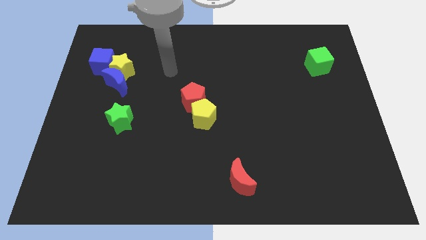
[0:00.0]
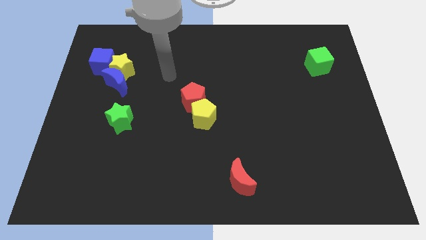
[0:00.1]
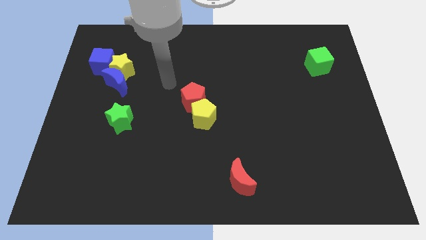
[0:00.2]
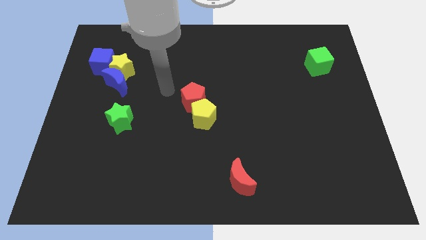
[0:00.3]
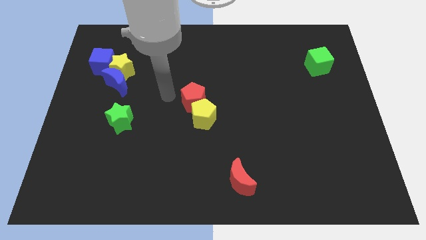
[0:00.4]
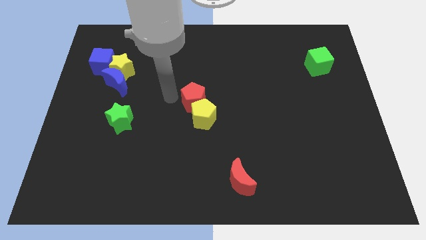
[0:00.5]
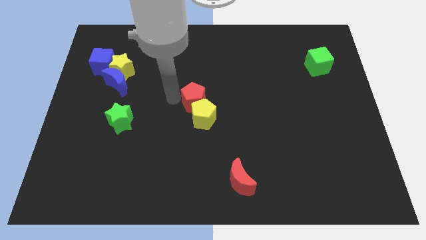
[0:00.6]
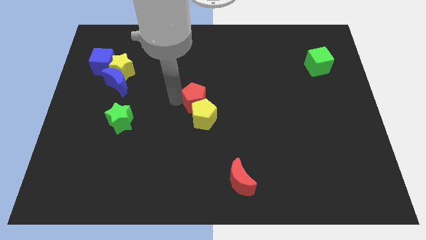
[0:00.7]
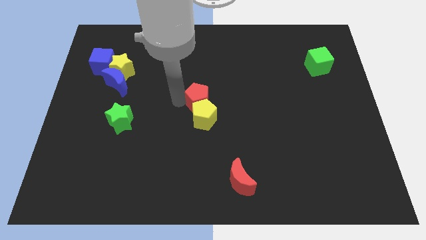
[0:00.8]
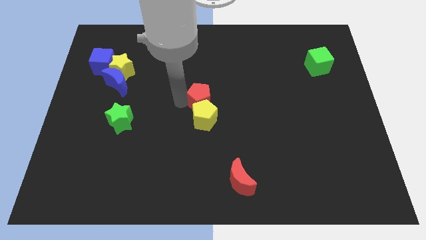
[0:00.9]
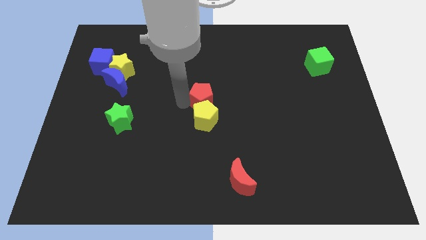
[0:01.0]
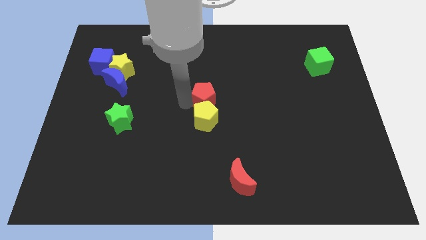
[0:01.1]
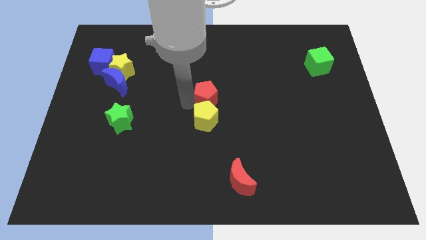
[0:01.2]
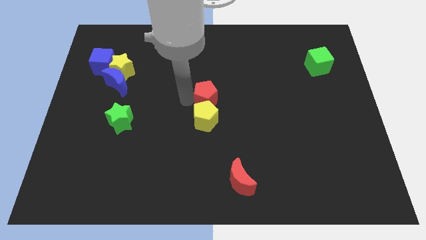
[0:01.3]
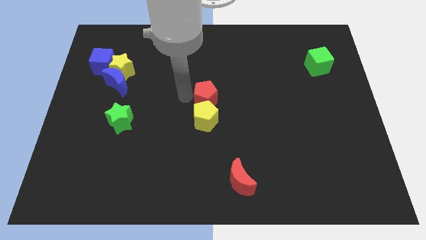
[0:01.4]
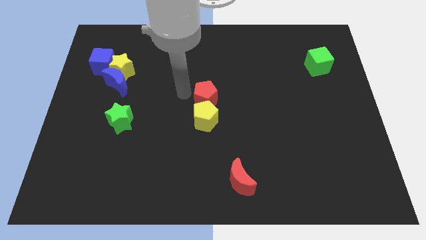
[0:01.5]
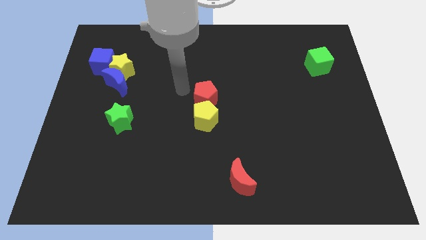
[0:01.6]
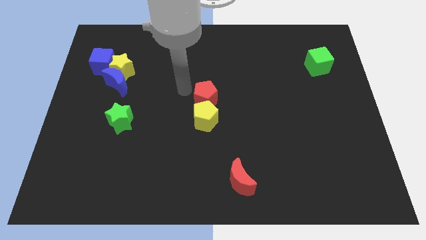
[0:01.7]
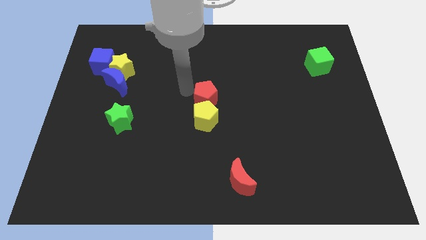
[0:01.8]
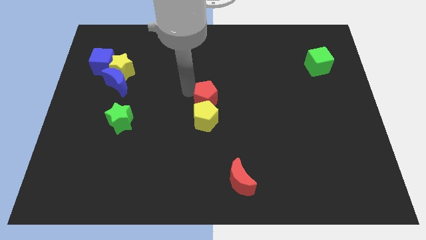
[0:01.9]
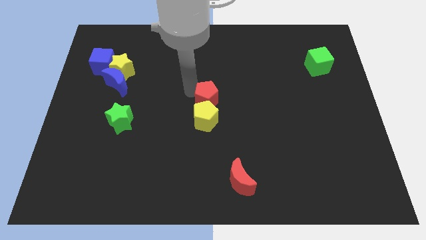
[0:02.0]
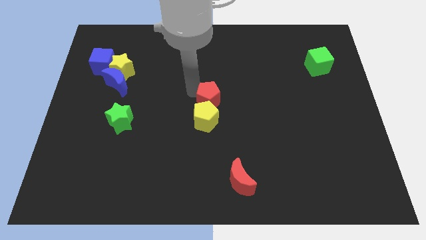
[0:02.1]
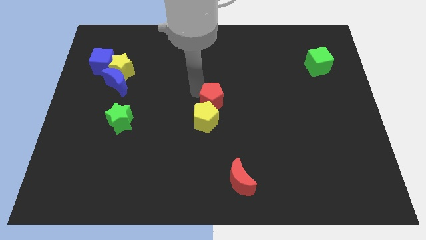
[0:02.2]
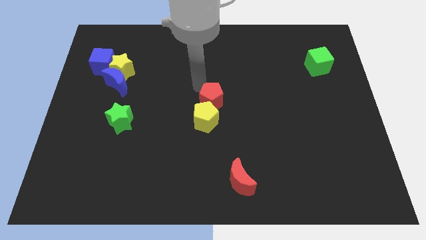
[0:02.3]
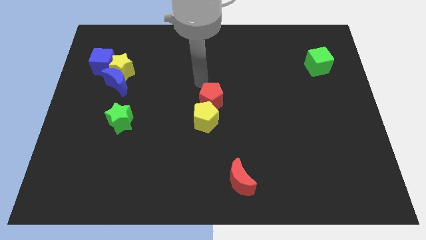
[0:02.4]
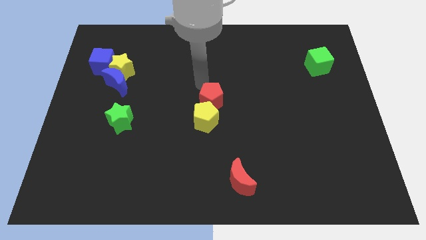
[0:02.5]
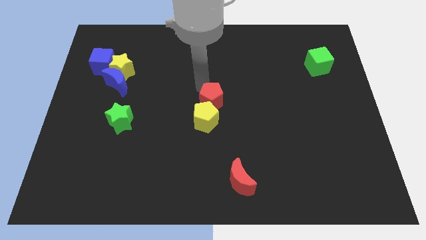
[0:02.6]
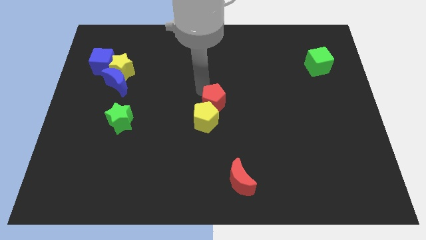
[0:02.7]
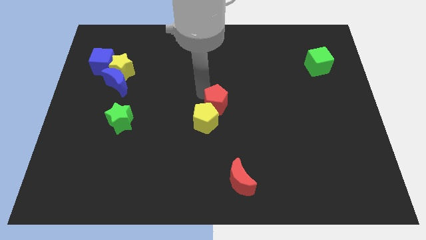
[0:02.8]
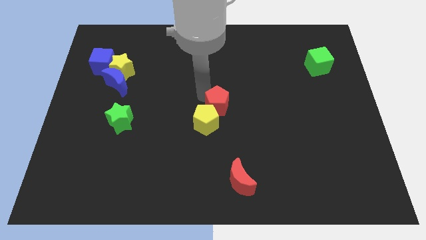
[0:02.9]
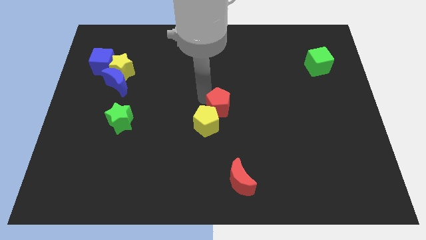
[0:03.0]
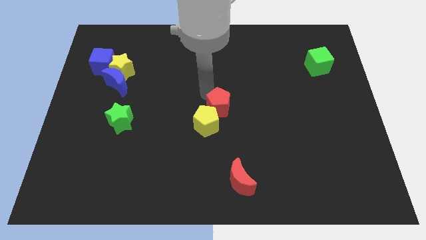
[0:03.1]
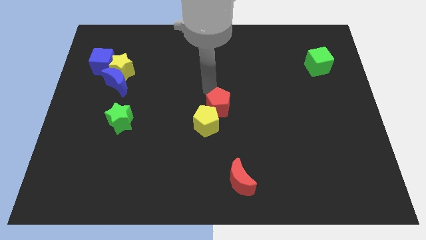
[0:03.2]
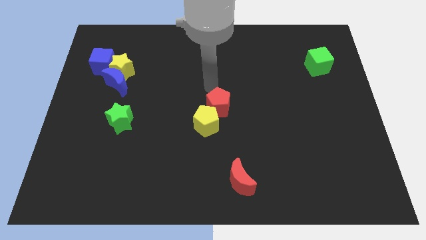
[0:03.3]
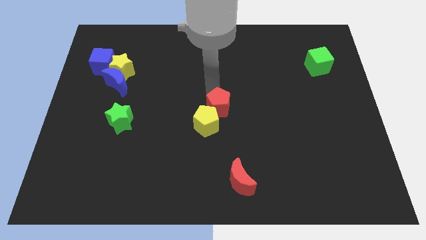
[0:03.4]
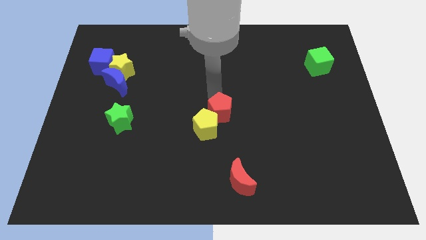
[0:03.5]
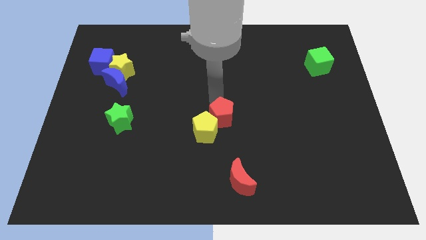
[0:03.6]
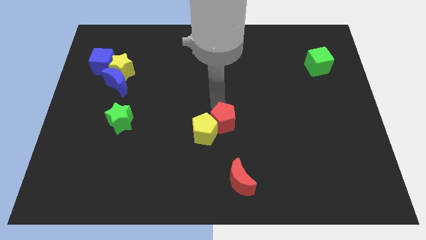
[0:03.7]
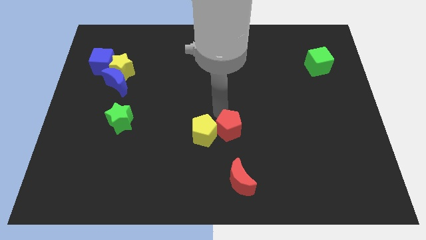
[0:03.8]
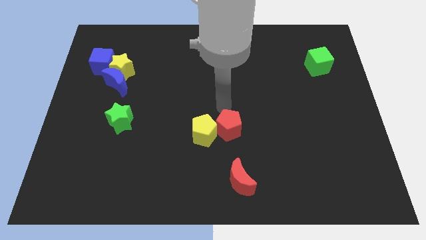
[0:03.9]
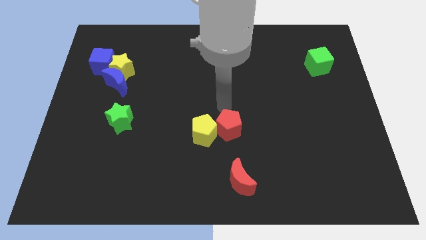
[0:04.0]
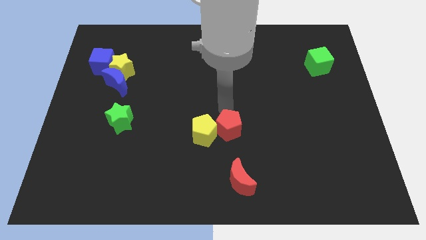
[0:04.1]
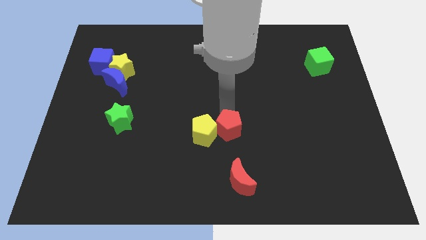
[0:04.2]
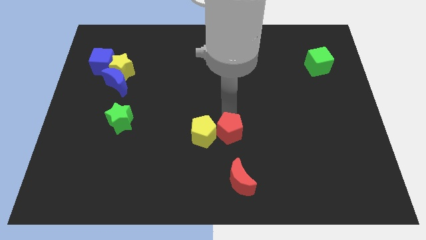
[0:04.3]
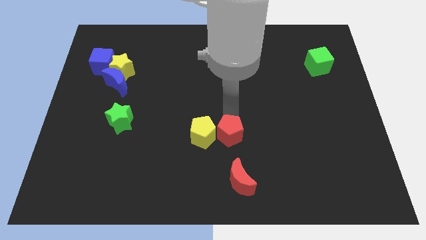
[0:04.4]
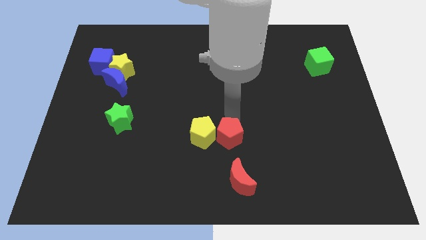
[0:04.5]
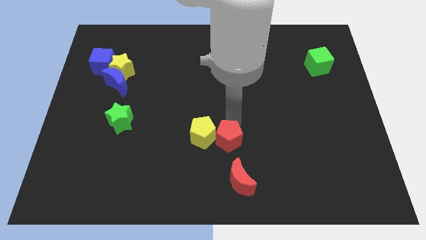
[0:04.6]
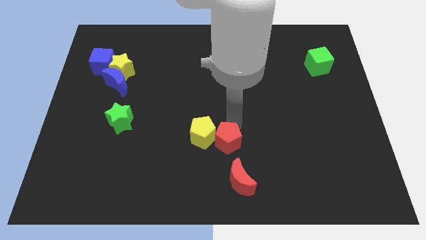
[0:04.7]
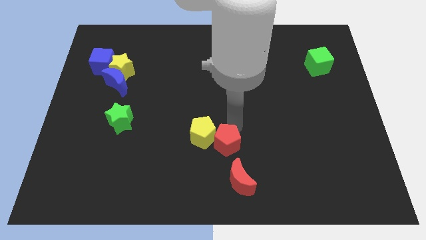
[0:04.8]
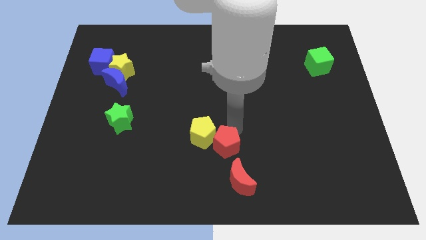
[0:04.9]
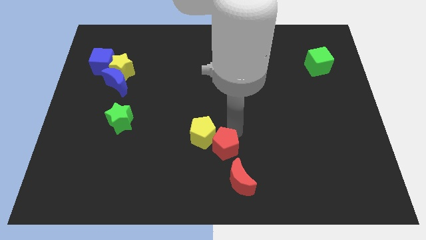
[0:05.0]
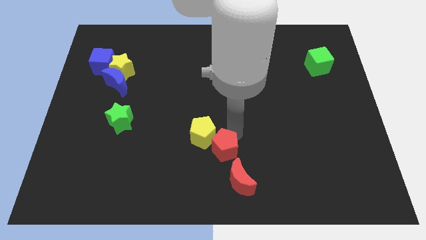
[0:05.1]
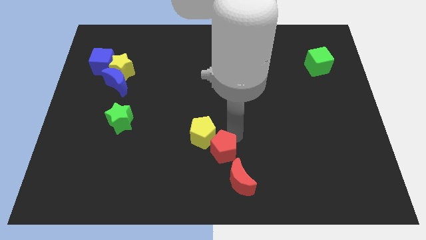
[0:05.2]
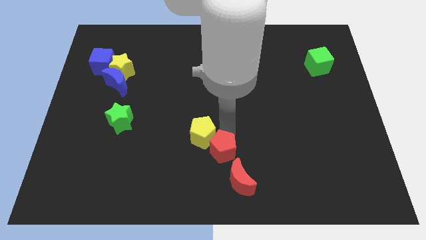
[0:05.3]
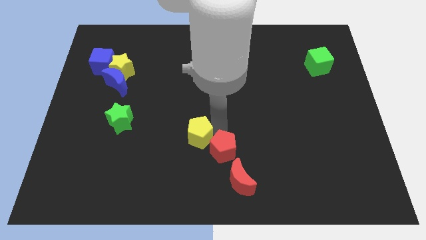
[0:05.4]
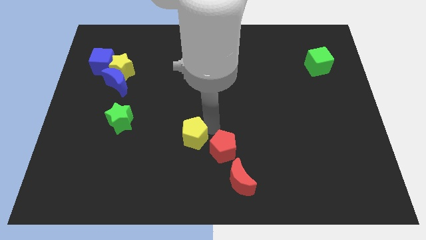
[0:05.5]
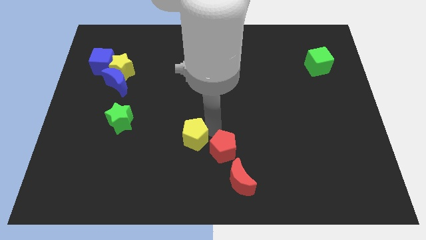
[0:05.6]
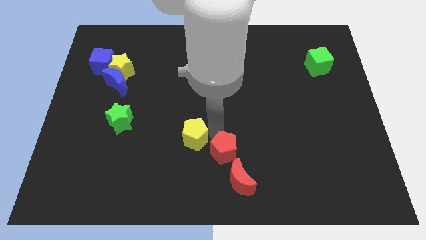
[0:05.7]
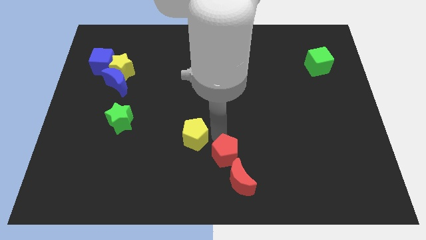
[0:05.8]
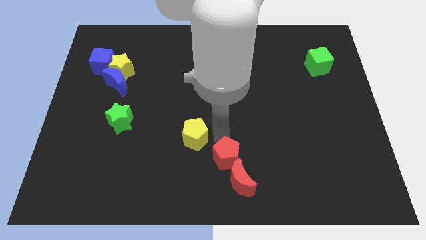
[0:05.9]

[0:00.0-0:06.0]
move the red pentagon next to the red moon
